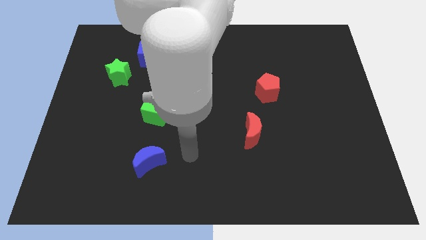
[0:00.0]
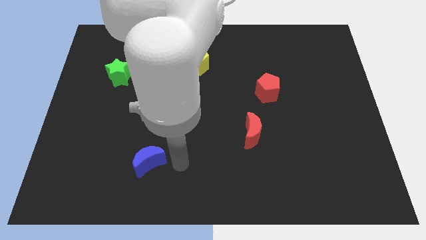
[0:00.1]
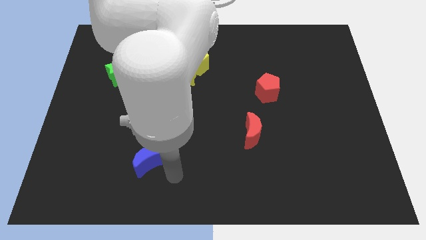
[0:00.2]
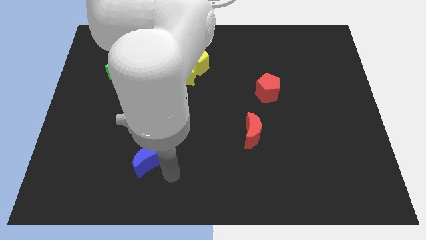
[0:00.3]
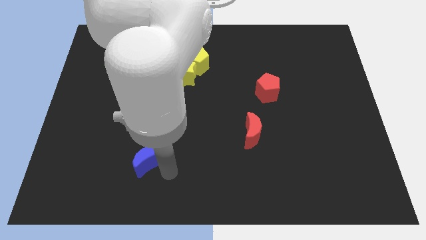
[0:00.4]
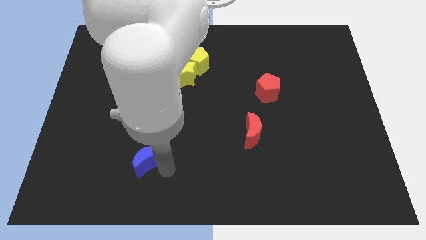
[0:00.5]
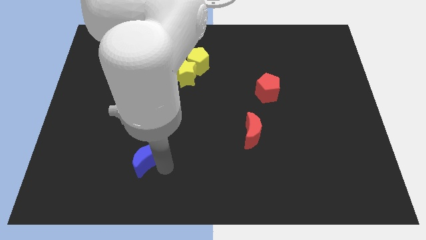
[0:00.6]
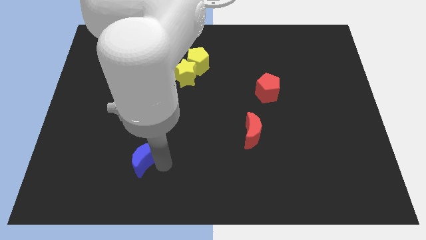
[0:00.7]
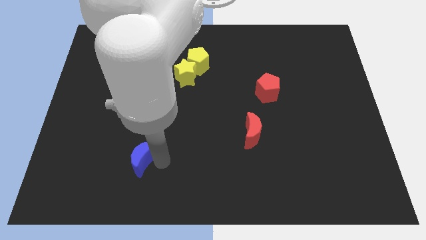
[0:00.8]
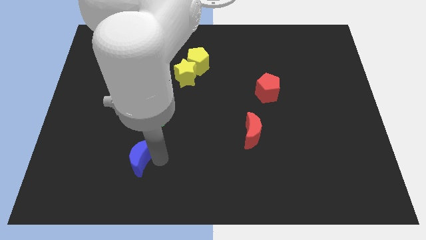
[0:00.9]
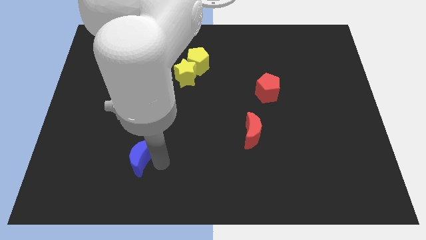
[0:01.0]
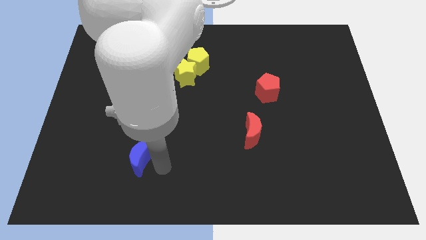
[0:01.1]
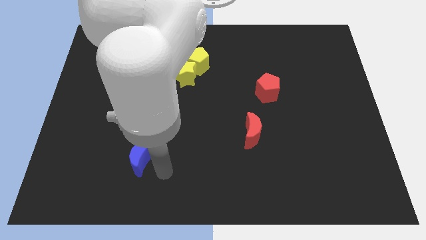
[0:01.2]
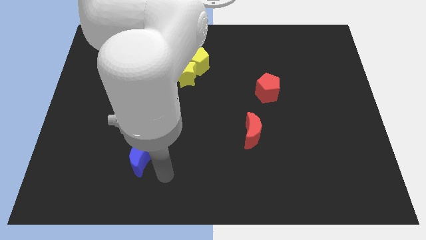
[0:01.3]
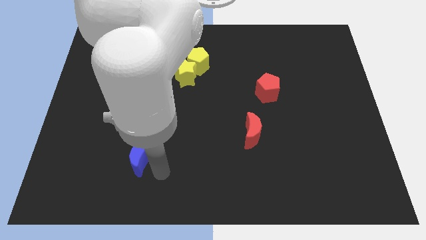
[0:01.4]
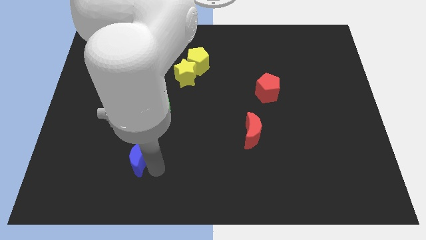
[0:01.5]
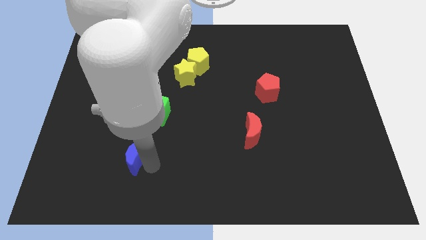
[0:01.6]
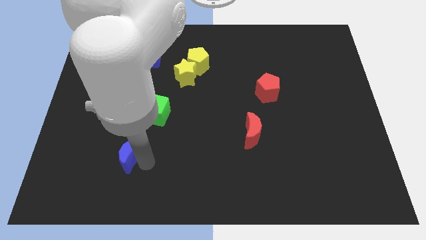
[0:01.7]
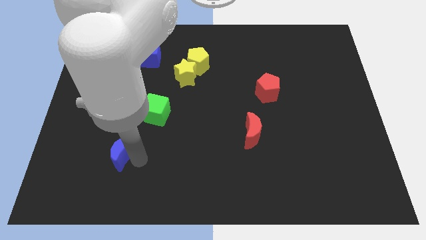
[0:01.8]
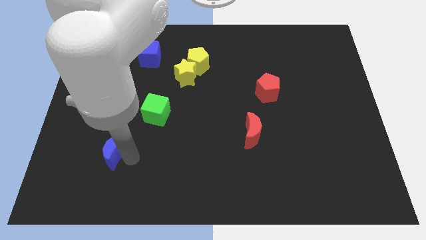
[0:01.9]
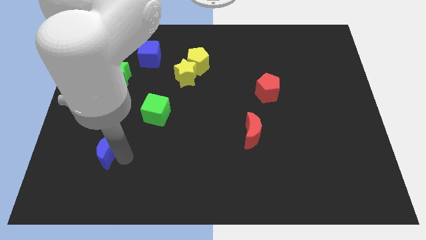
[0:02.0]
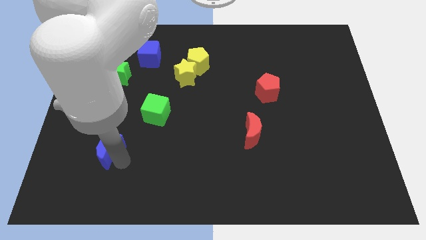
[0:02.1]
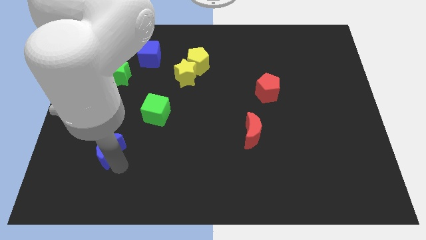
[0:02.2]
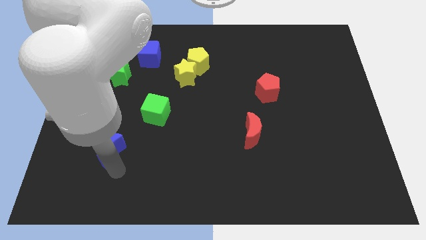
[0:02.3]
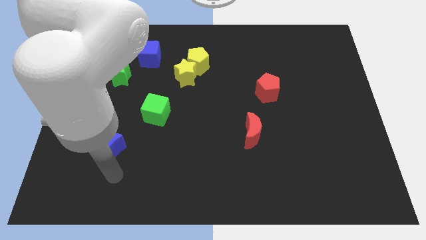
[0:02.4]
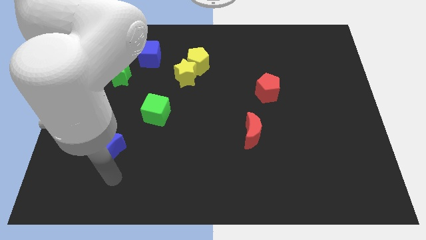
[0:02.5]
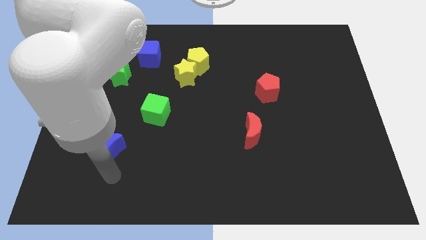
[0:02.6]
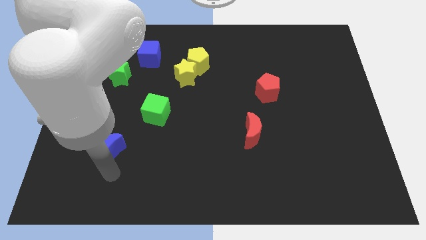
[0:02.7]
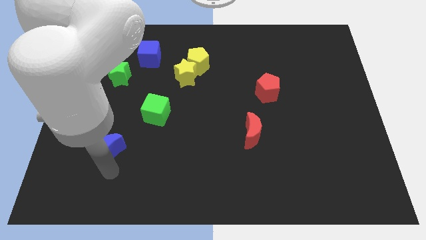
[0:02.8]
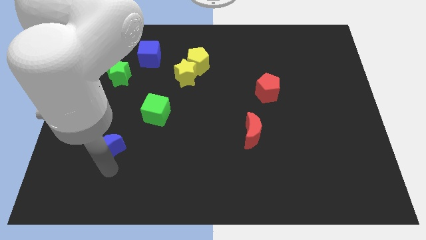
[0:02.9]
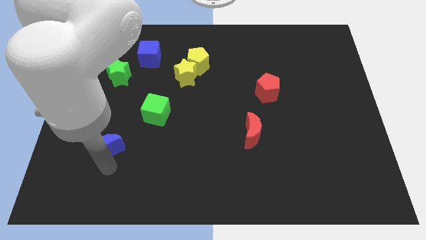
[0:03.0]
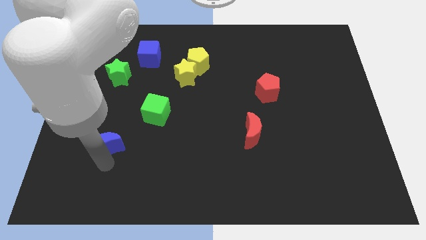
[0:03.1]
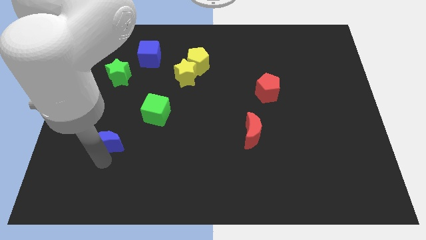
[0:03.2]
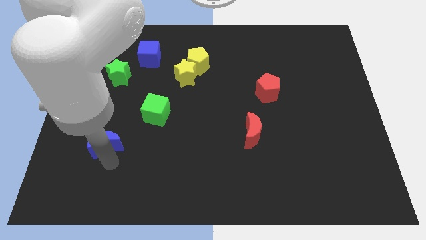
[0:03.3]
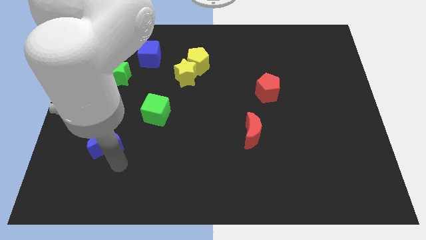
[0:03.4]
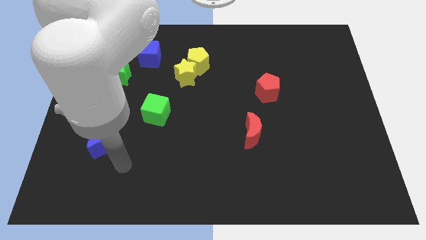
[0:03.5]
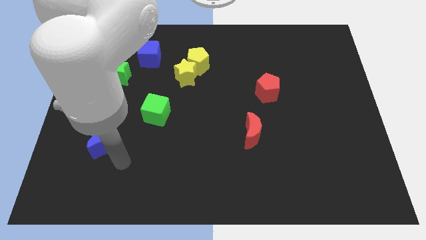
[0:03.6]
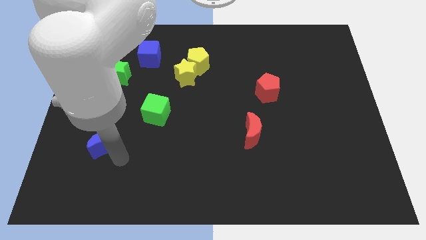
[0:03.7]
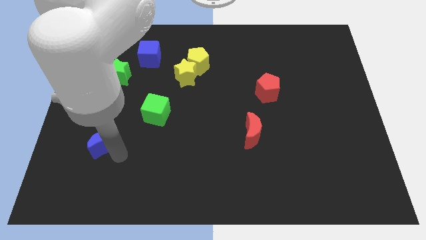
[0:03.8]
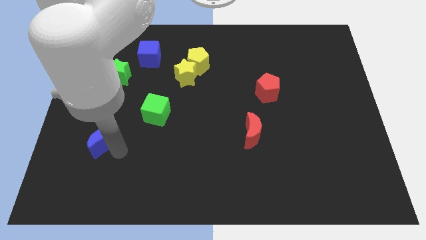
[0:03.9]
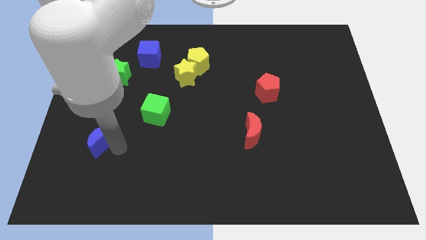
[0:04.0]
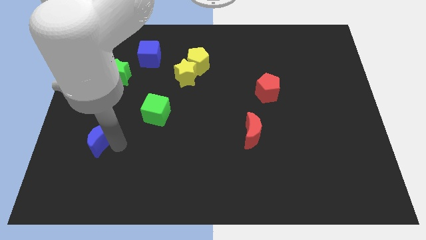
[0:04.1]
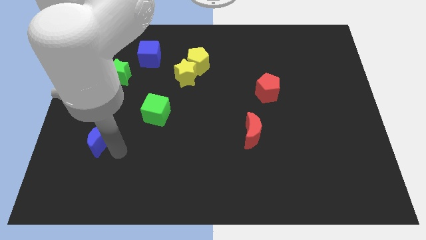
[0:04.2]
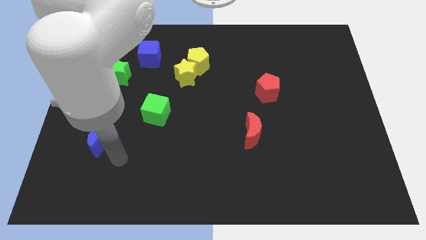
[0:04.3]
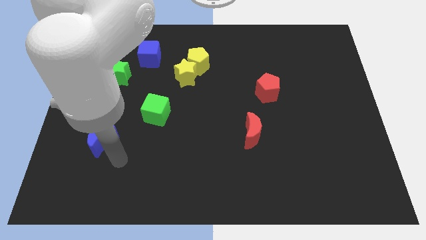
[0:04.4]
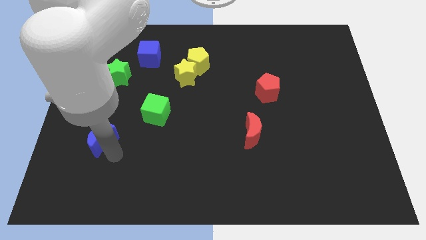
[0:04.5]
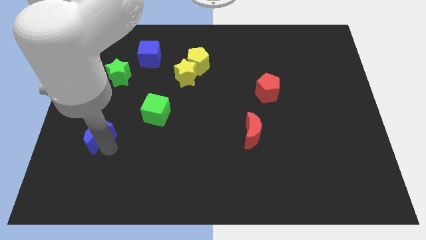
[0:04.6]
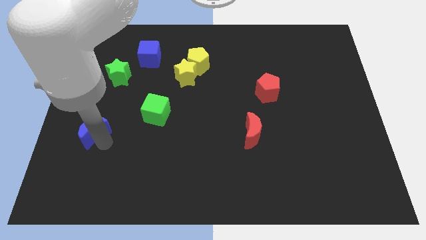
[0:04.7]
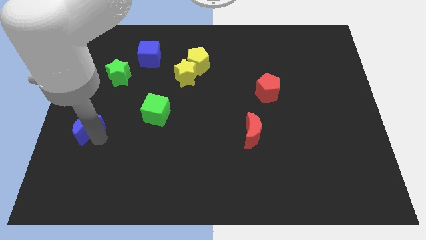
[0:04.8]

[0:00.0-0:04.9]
put the blue moon to the left side

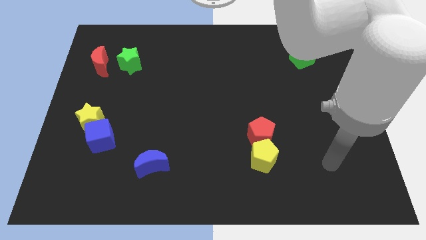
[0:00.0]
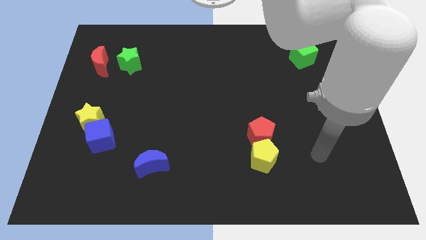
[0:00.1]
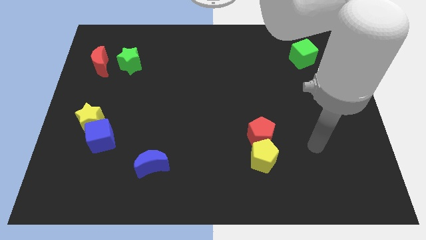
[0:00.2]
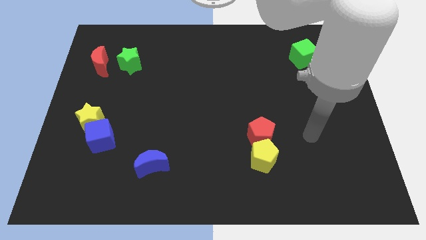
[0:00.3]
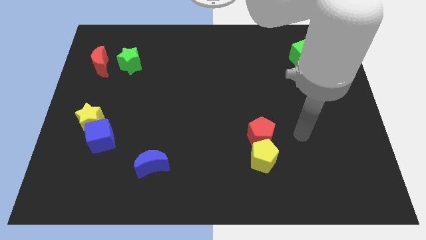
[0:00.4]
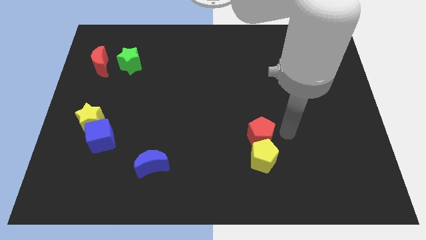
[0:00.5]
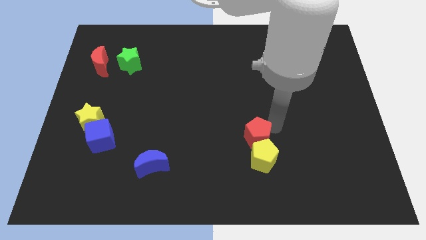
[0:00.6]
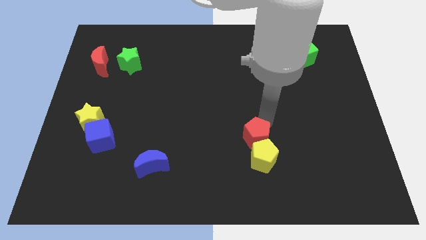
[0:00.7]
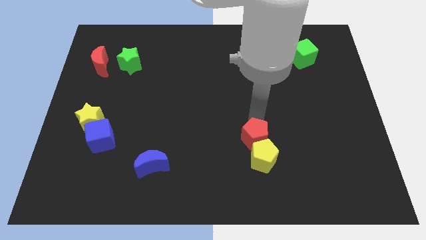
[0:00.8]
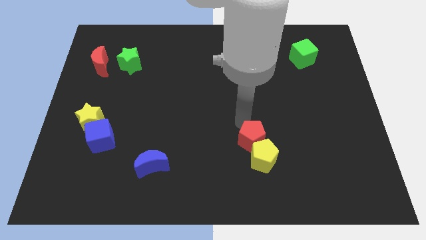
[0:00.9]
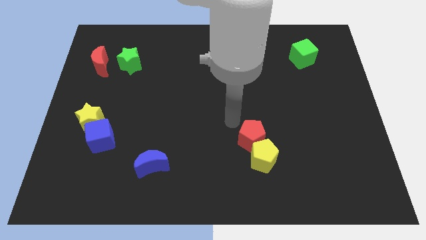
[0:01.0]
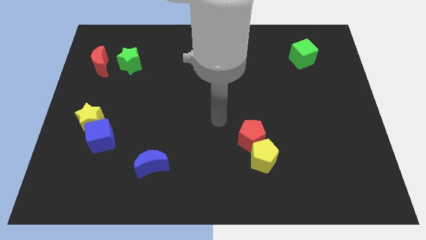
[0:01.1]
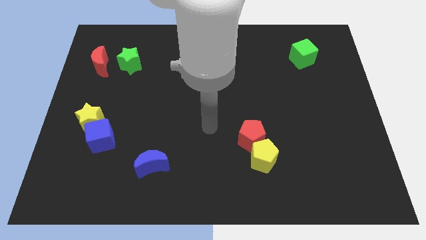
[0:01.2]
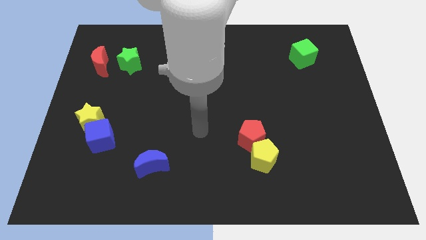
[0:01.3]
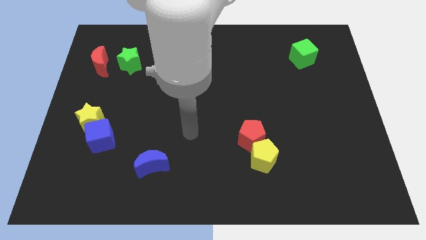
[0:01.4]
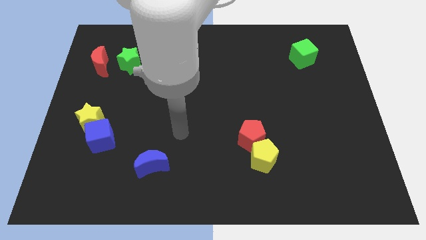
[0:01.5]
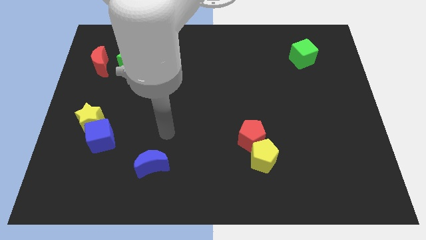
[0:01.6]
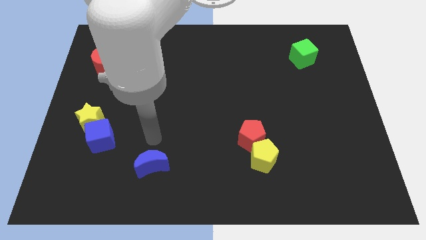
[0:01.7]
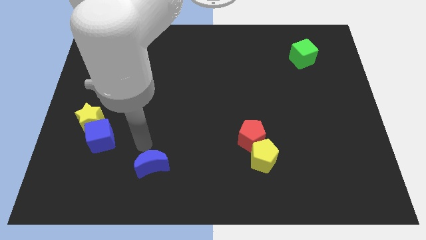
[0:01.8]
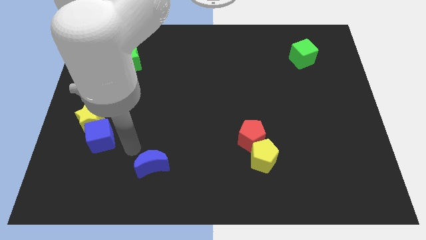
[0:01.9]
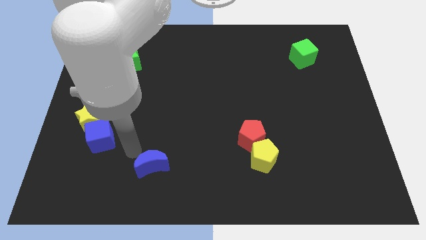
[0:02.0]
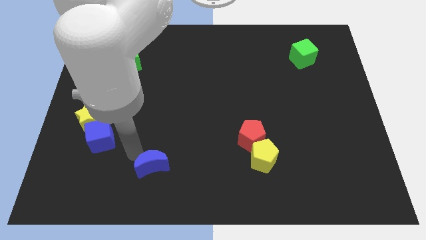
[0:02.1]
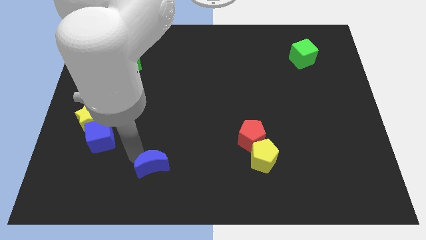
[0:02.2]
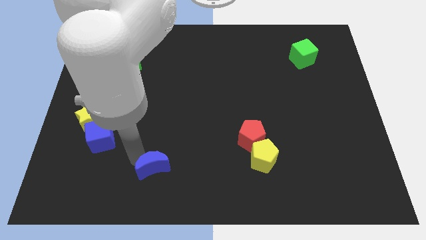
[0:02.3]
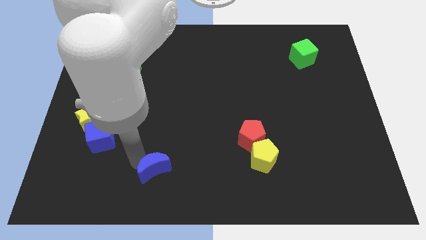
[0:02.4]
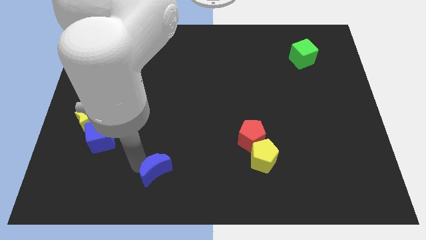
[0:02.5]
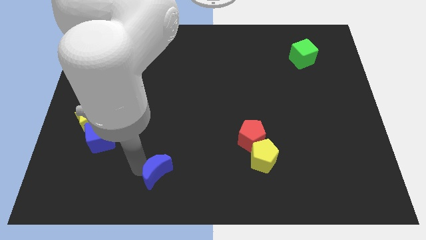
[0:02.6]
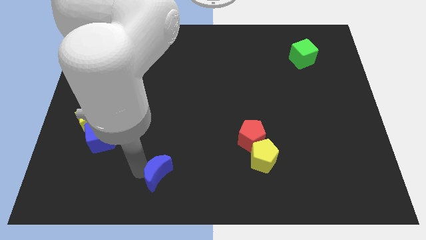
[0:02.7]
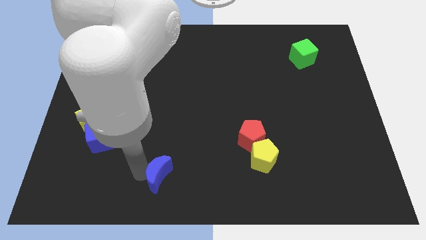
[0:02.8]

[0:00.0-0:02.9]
move the blue moon to the bottom
